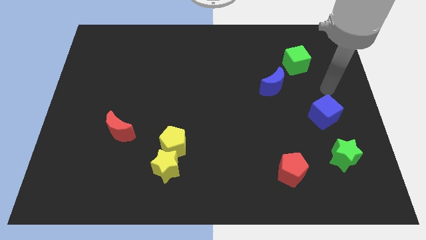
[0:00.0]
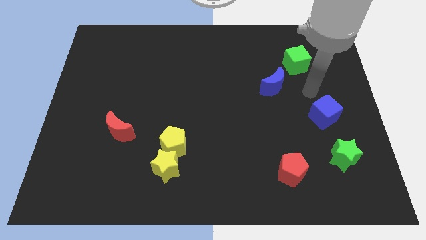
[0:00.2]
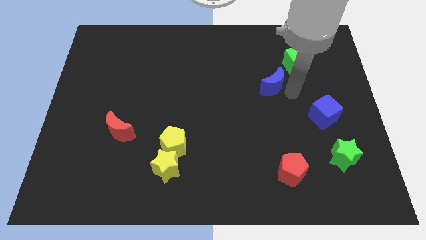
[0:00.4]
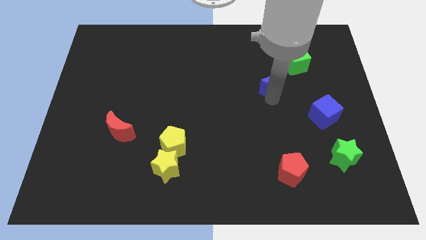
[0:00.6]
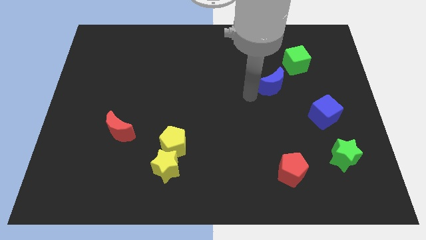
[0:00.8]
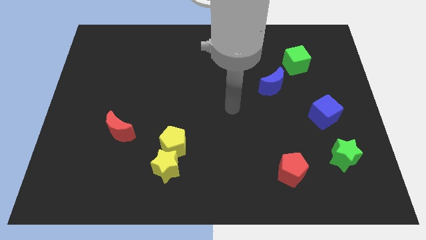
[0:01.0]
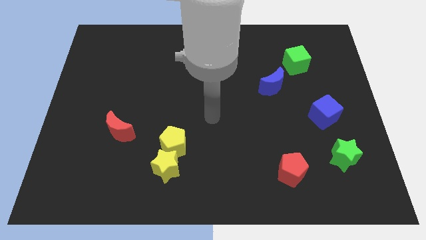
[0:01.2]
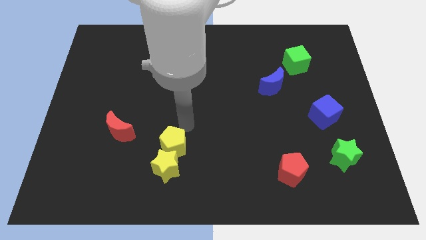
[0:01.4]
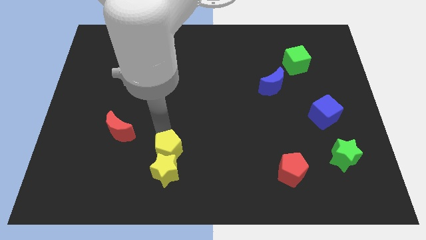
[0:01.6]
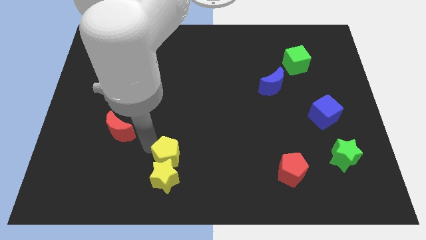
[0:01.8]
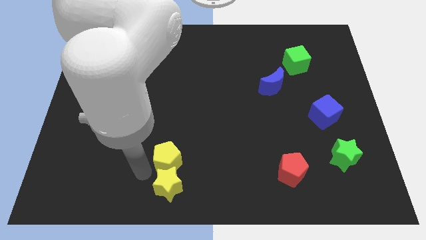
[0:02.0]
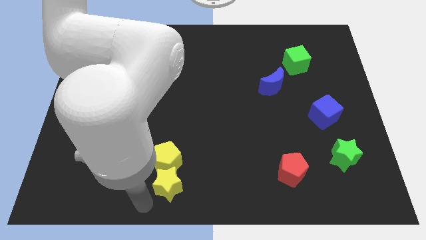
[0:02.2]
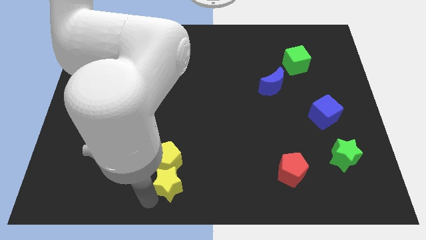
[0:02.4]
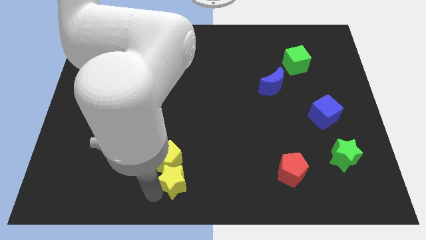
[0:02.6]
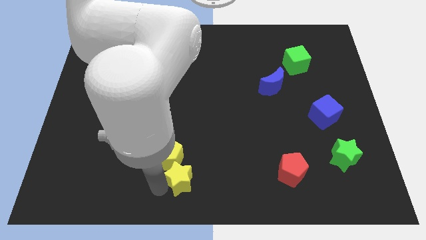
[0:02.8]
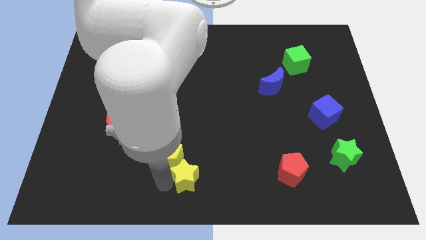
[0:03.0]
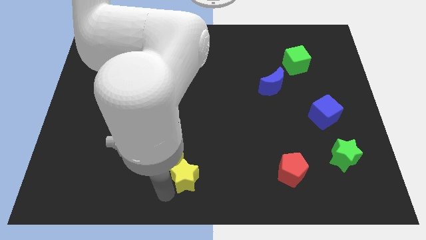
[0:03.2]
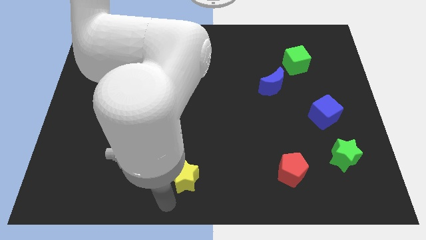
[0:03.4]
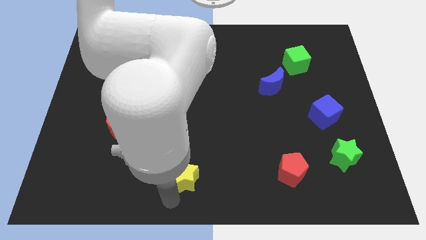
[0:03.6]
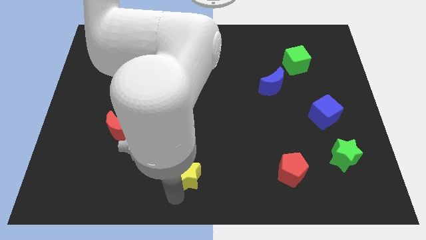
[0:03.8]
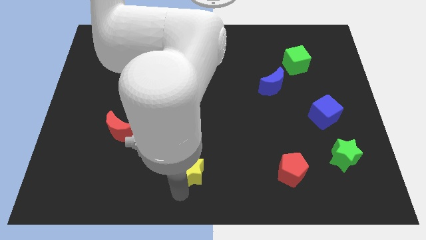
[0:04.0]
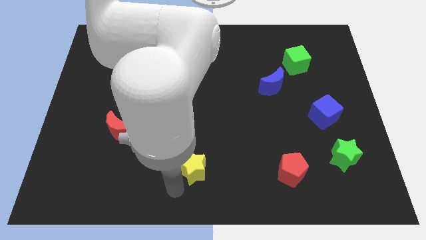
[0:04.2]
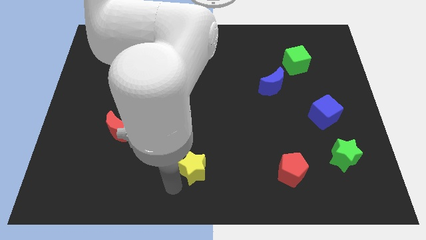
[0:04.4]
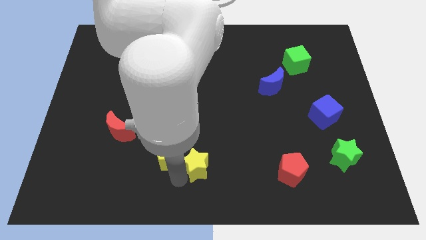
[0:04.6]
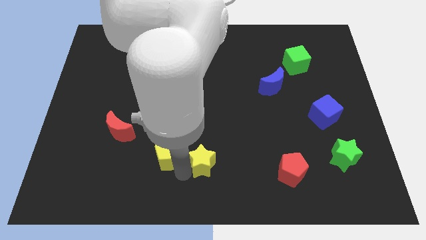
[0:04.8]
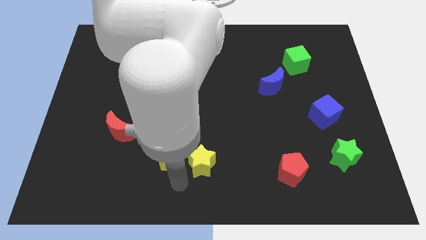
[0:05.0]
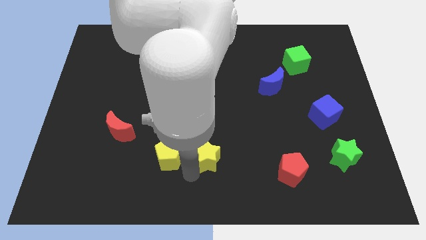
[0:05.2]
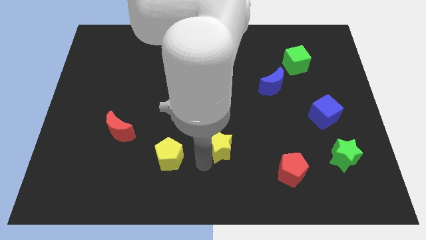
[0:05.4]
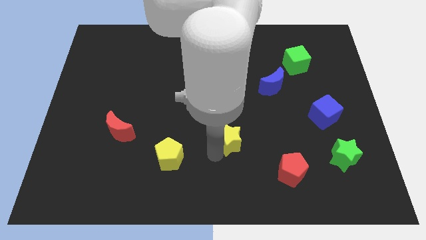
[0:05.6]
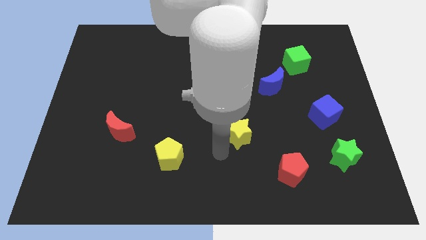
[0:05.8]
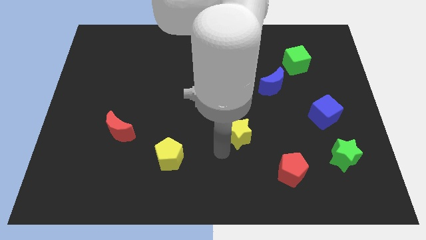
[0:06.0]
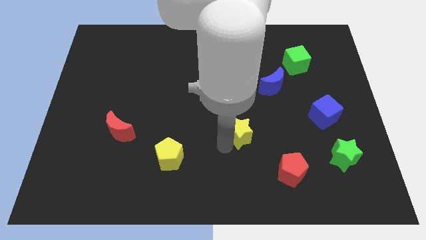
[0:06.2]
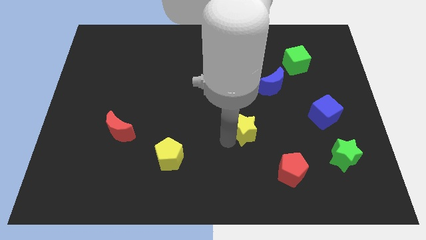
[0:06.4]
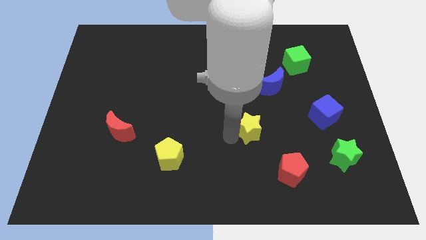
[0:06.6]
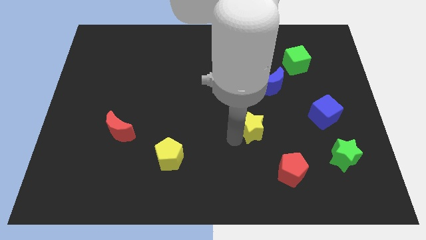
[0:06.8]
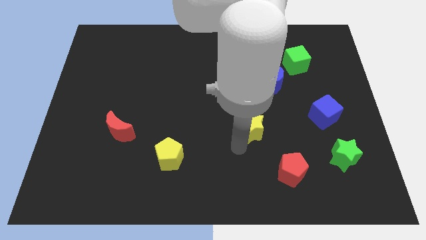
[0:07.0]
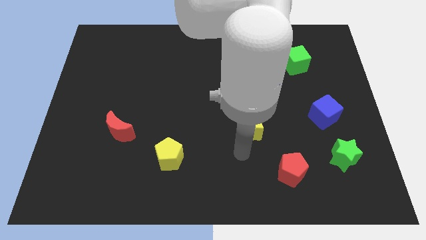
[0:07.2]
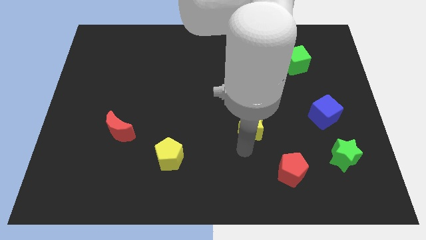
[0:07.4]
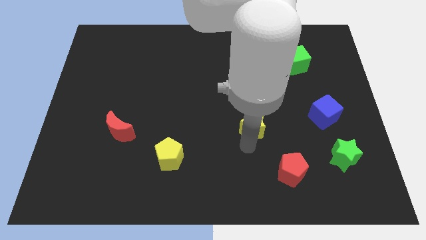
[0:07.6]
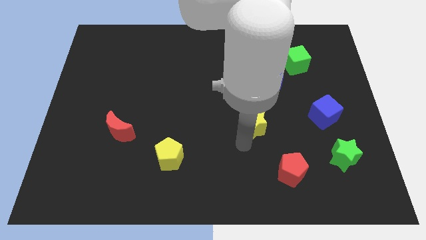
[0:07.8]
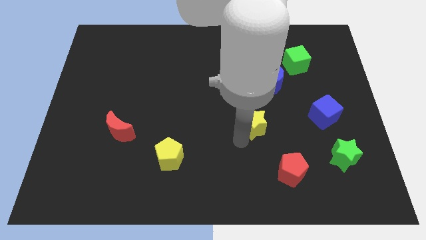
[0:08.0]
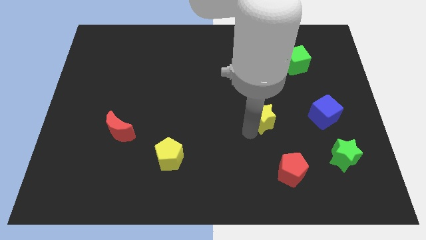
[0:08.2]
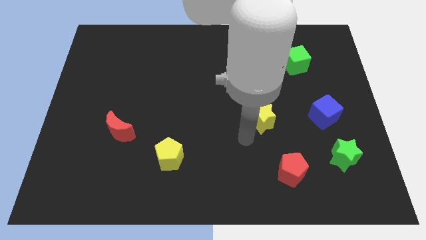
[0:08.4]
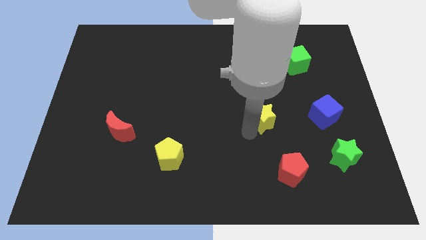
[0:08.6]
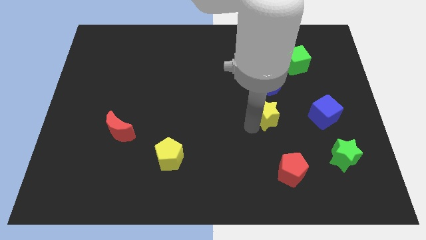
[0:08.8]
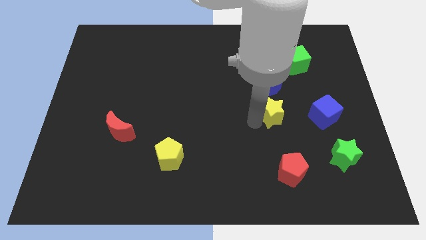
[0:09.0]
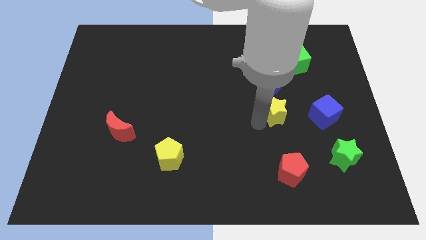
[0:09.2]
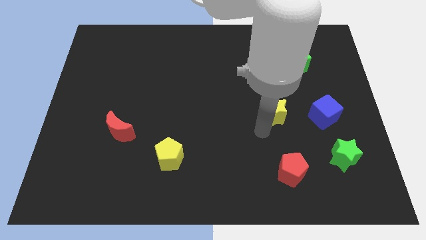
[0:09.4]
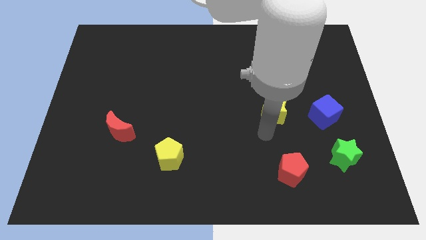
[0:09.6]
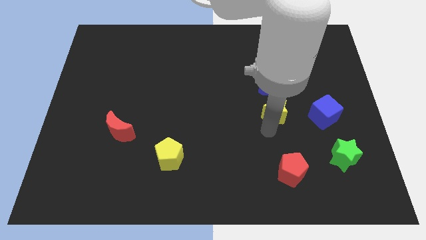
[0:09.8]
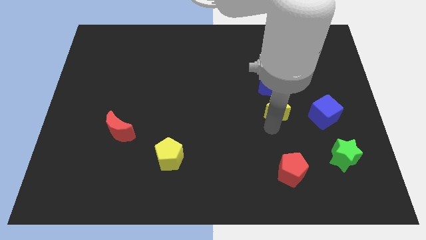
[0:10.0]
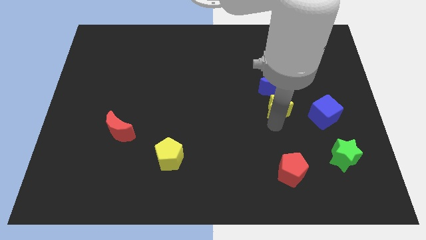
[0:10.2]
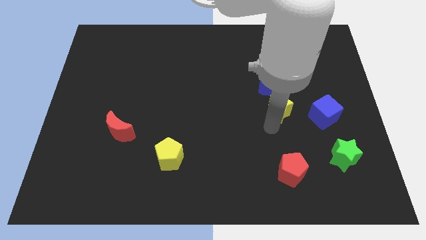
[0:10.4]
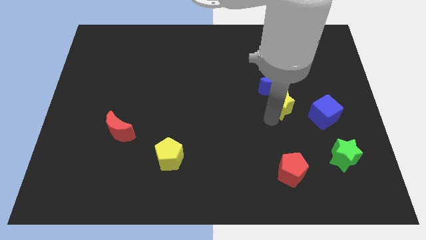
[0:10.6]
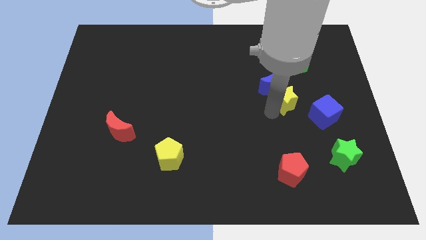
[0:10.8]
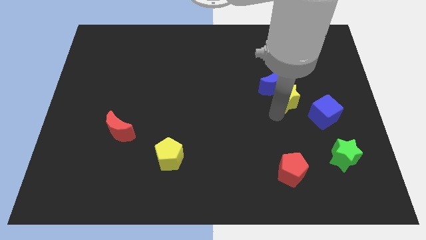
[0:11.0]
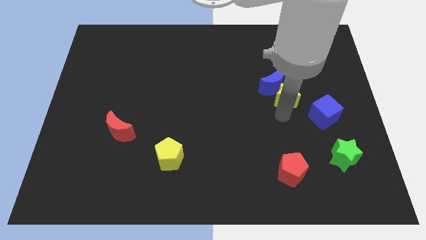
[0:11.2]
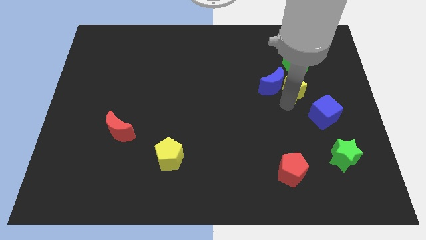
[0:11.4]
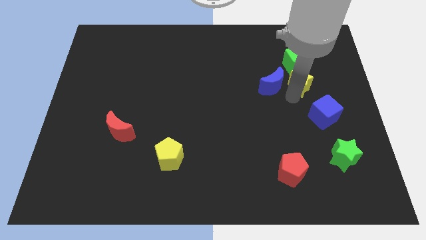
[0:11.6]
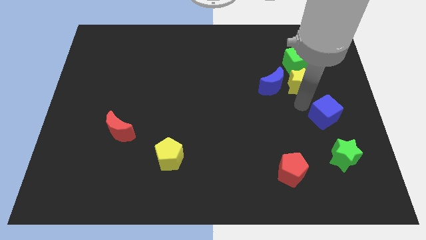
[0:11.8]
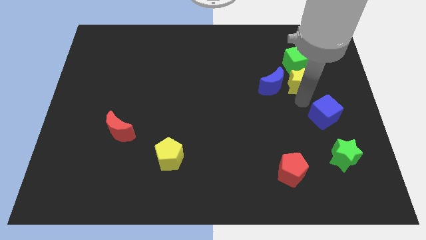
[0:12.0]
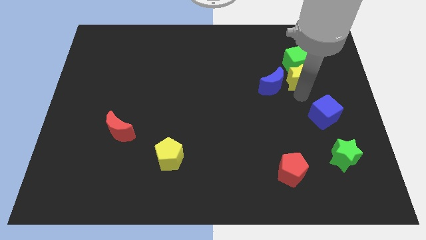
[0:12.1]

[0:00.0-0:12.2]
put the yellow star close to the green cube
